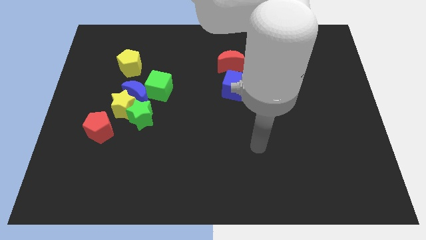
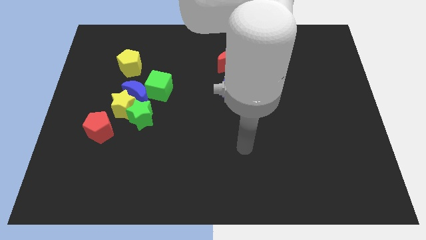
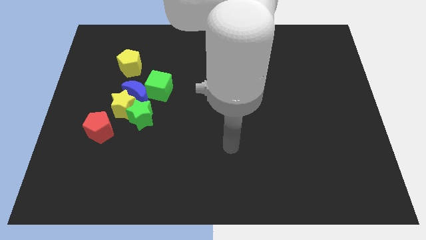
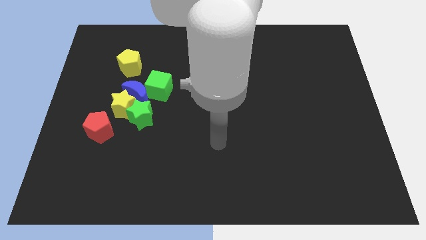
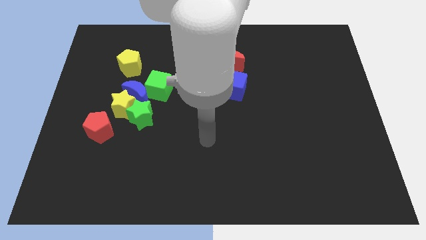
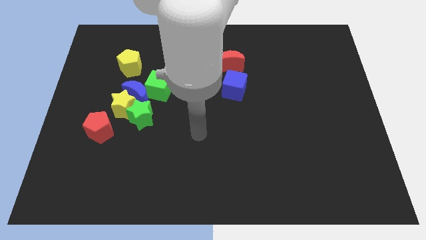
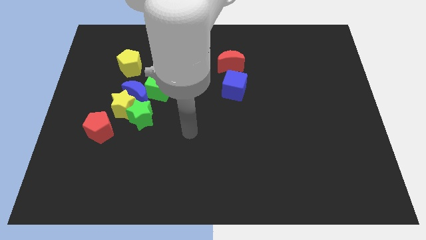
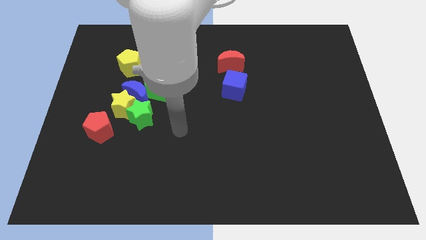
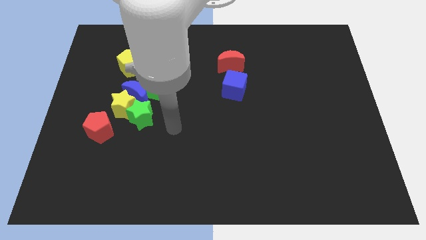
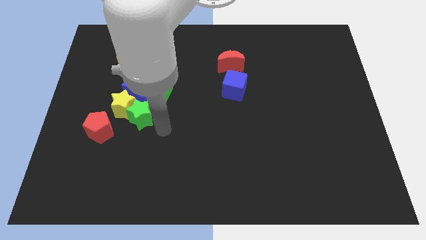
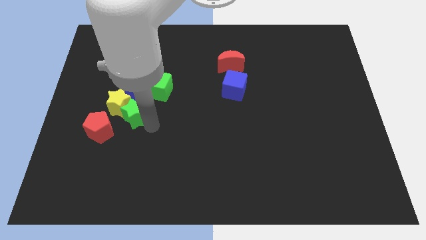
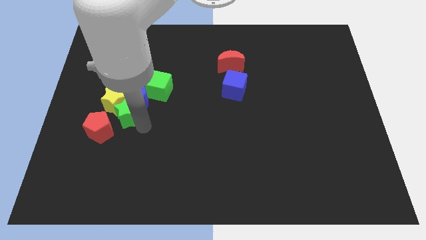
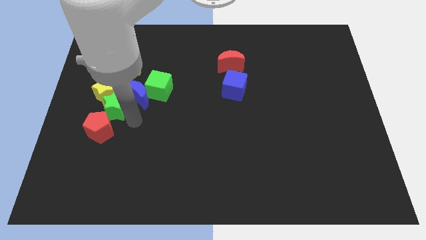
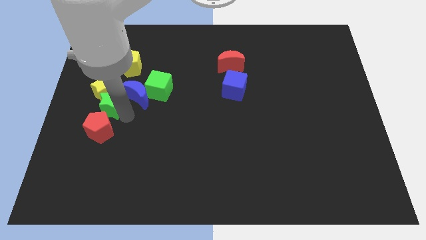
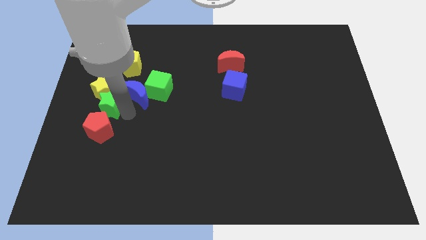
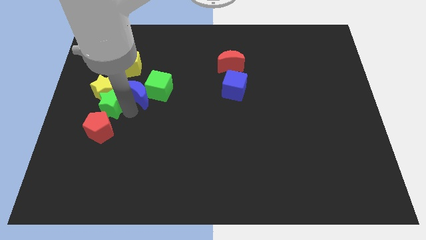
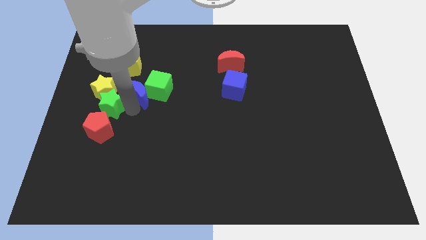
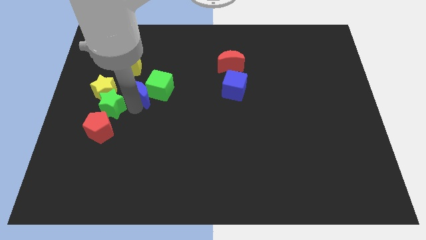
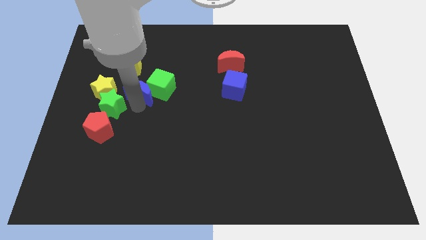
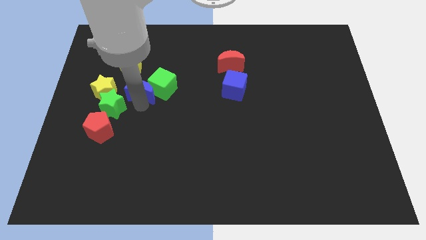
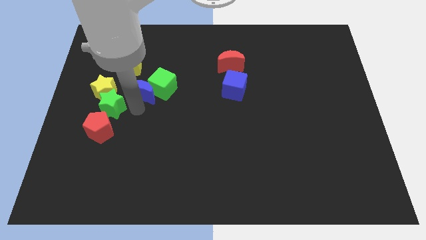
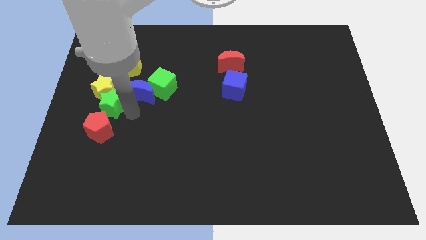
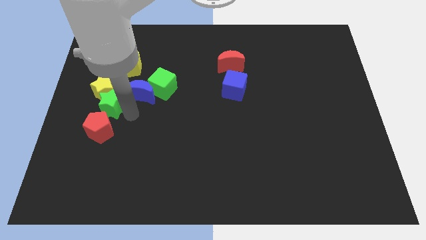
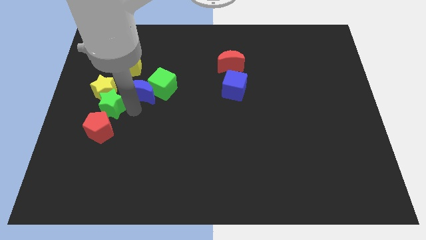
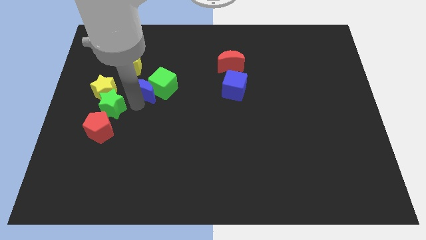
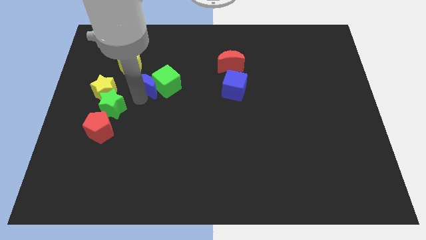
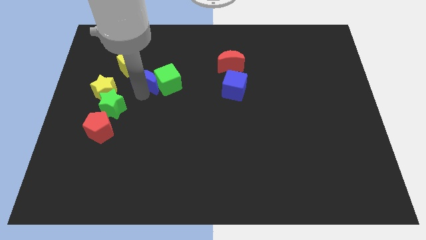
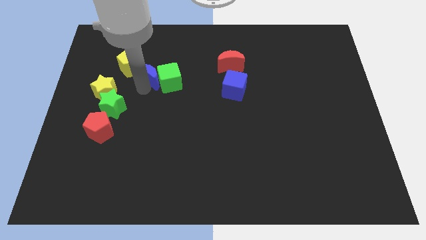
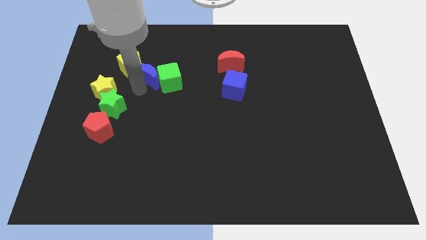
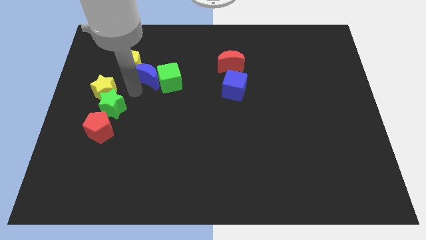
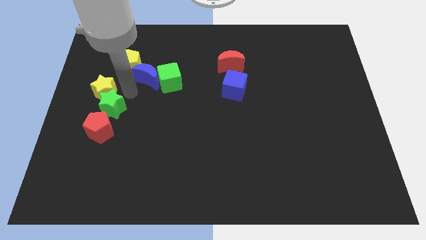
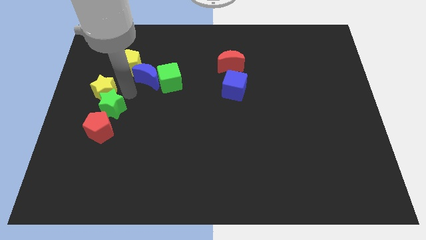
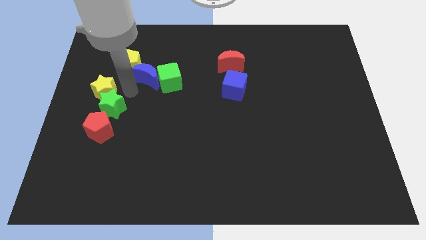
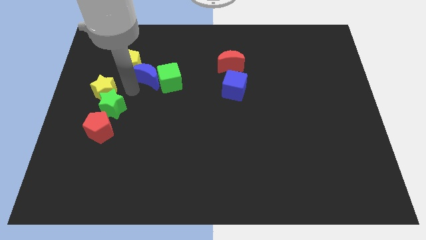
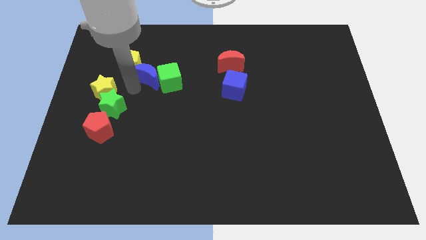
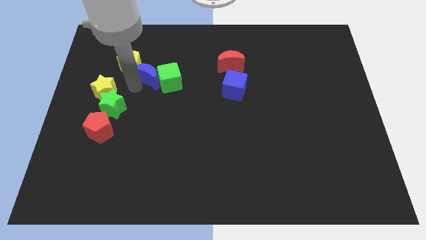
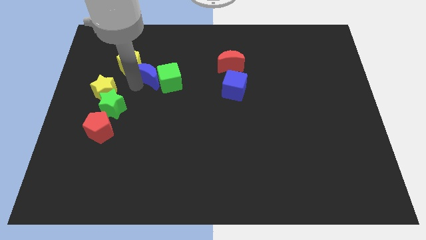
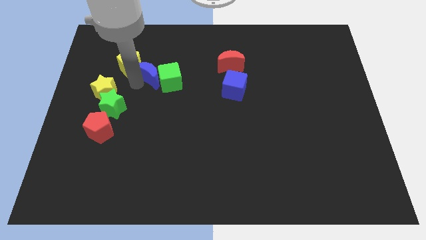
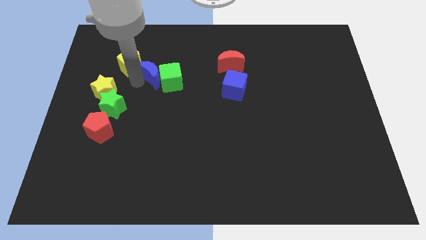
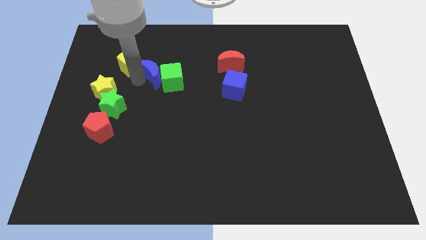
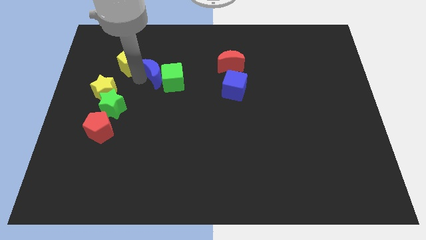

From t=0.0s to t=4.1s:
slightly slide the blue moon up and to the right

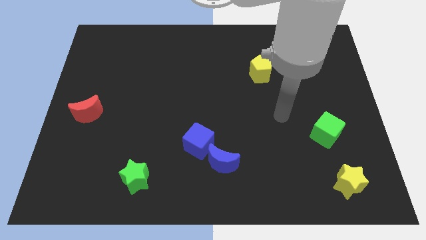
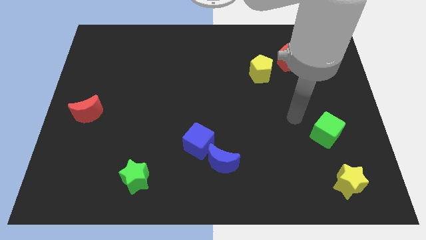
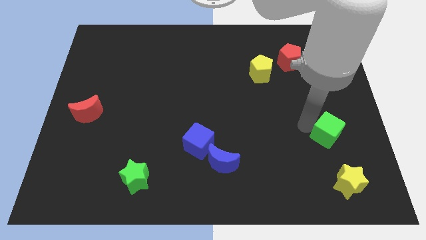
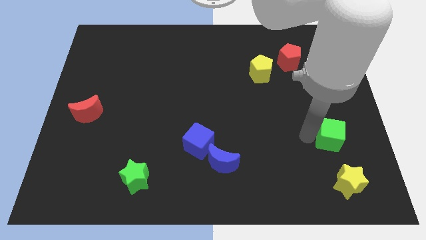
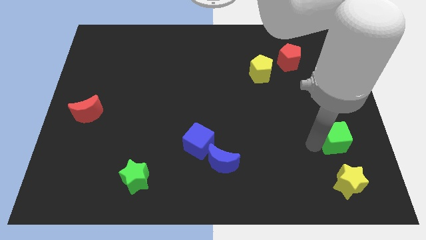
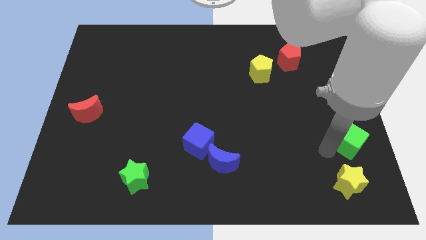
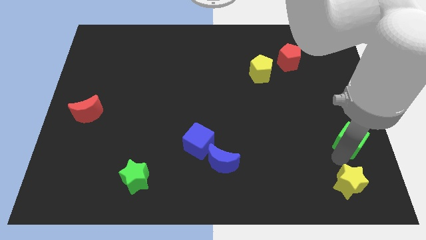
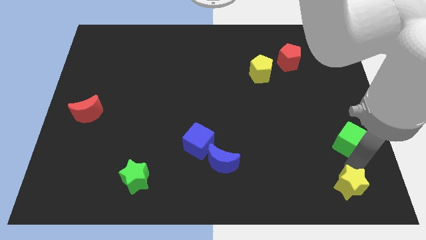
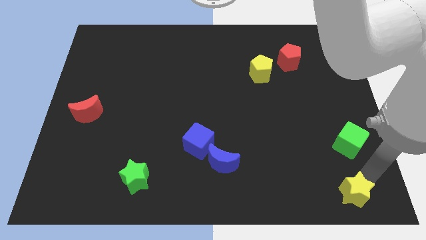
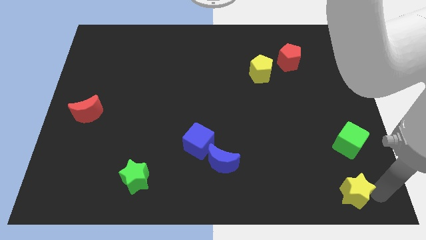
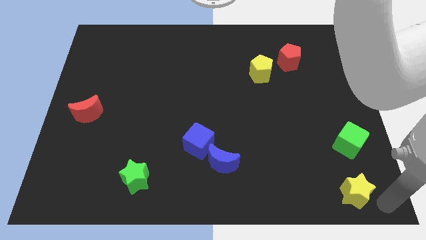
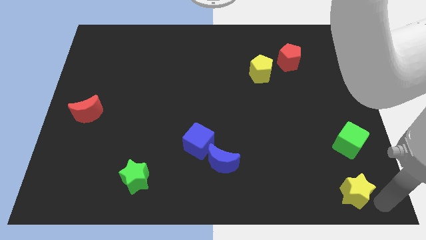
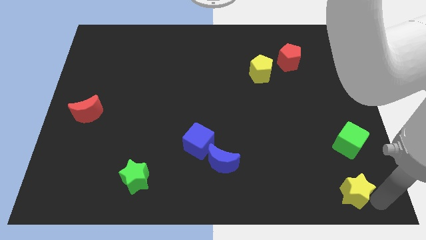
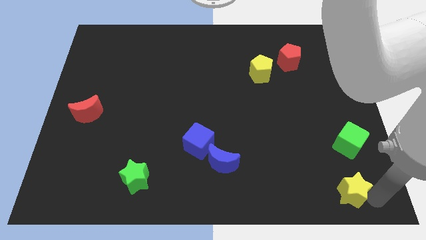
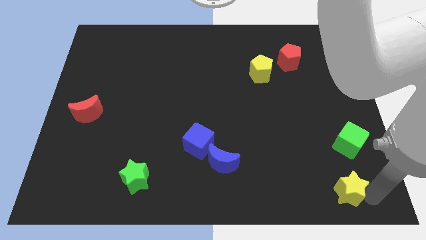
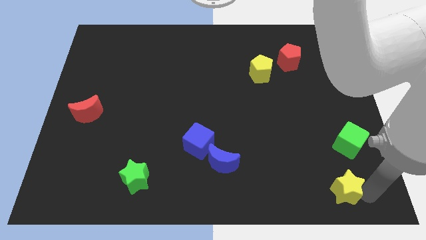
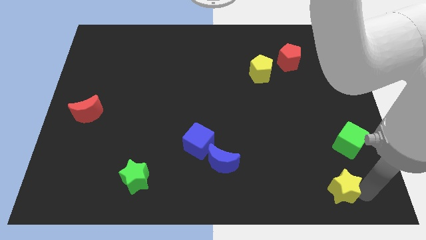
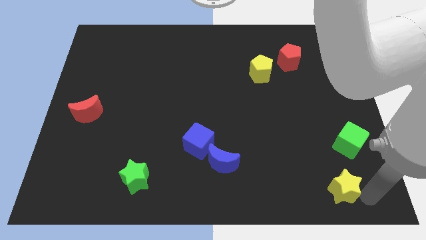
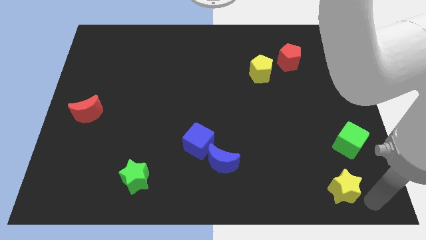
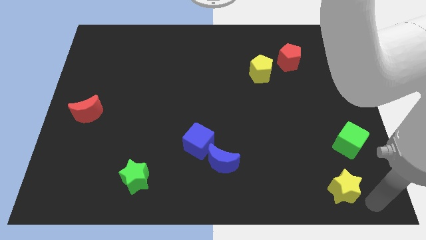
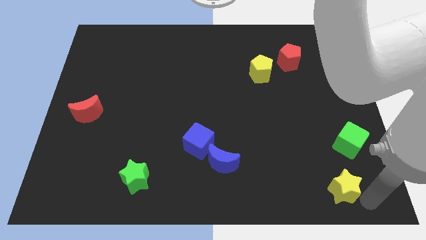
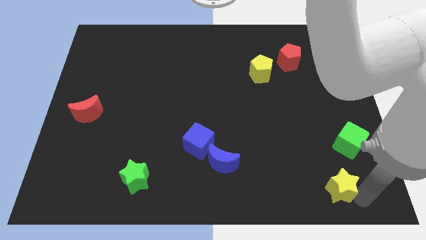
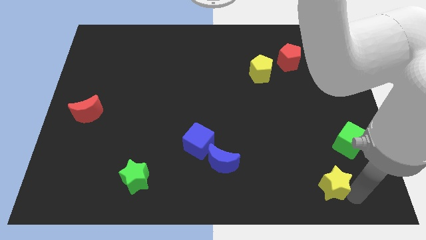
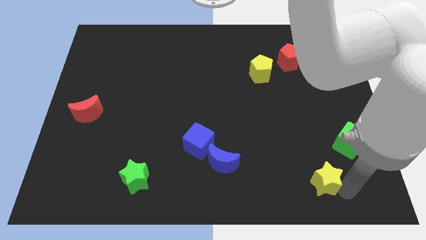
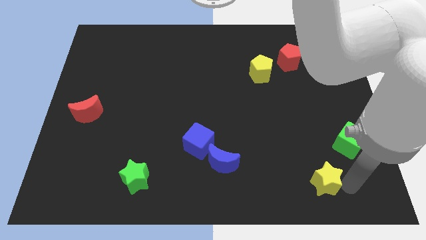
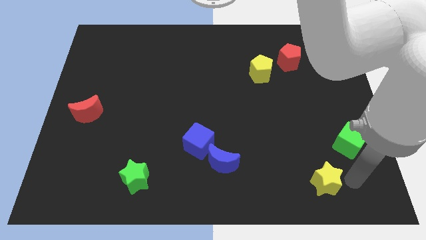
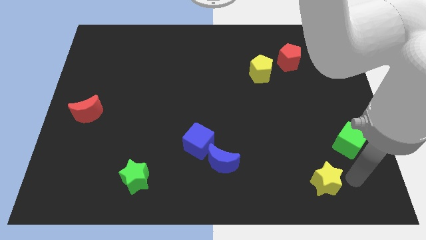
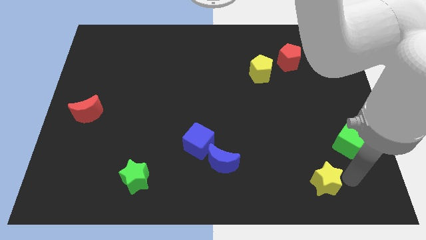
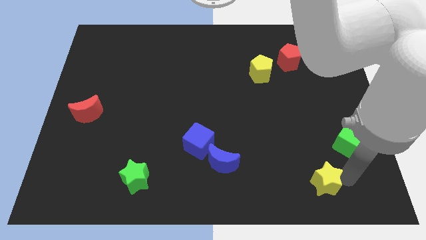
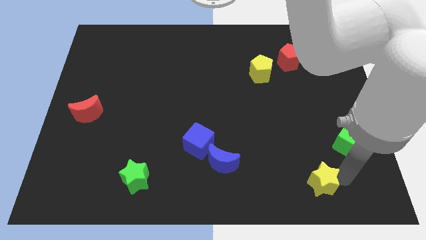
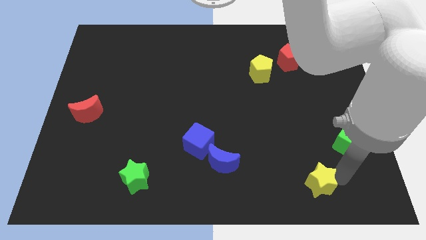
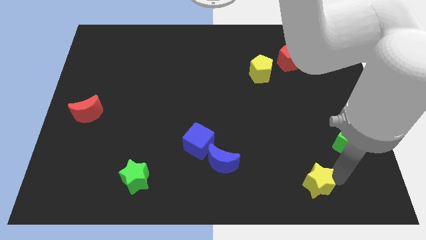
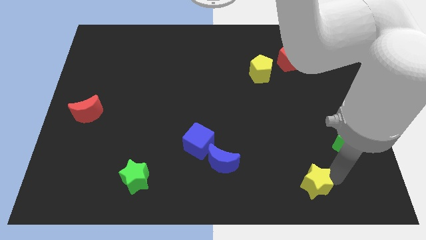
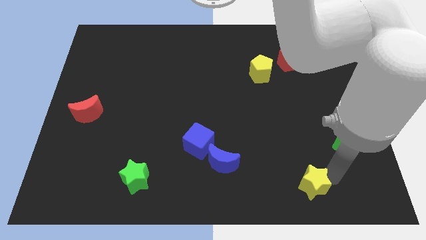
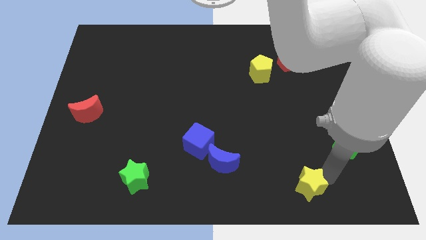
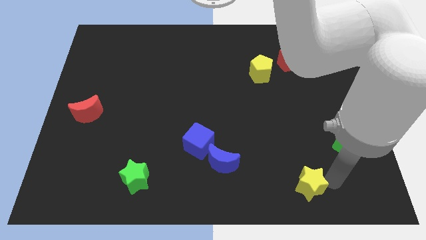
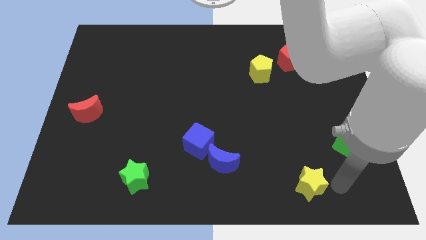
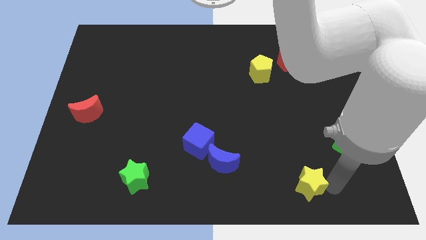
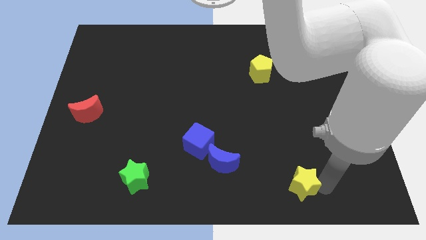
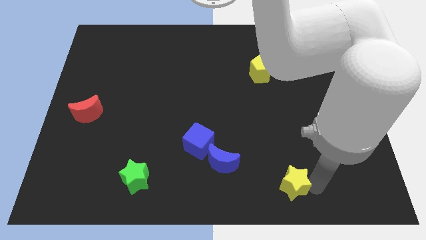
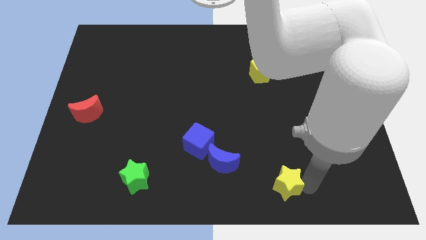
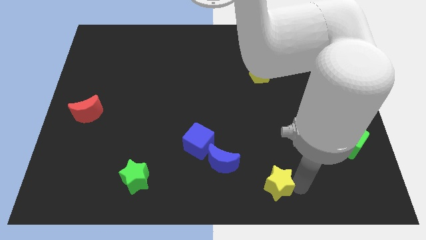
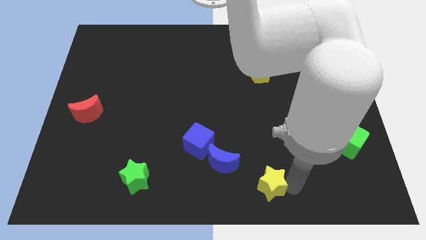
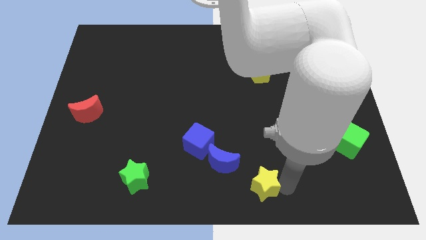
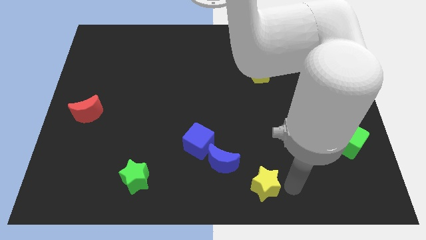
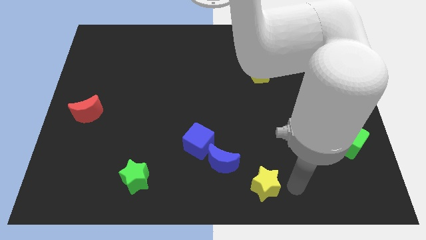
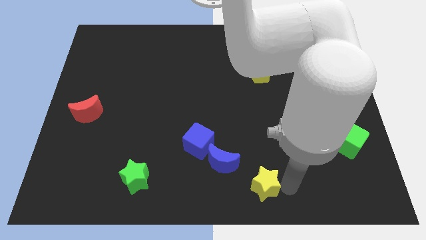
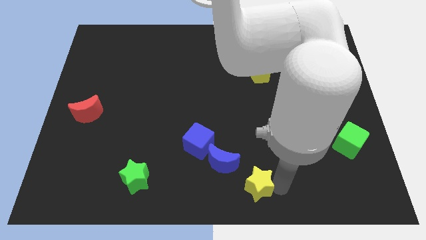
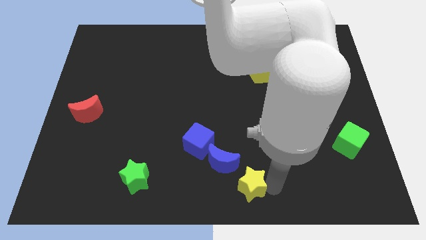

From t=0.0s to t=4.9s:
push the yellow star left
